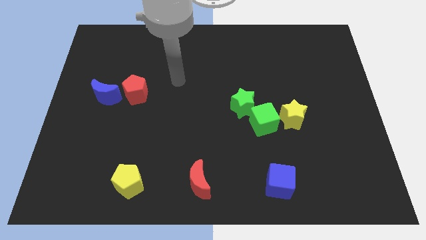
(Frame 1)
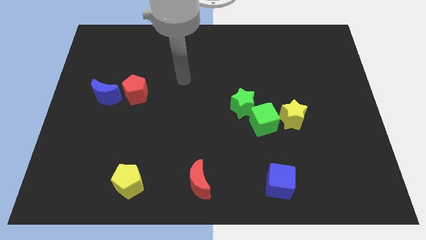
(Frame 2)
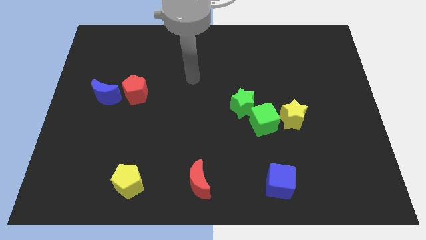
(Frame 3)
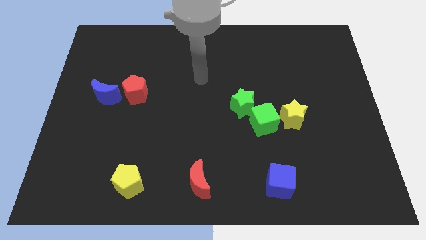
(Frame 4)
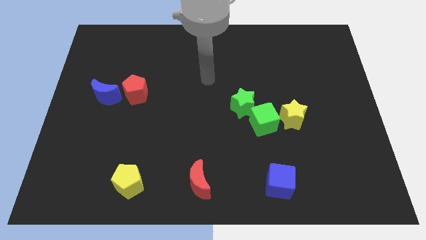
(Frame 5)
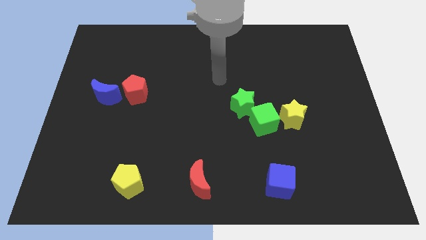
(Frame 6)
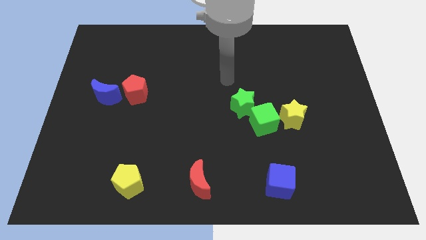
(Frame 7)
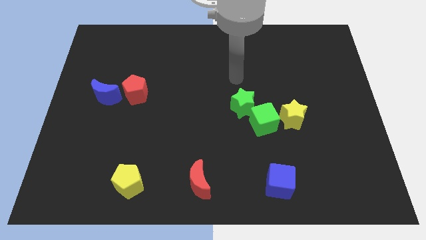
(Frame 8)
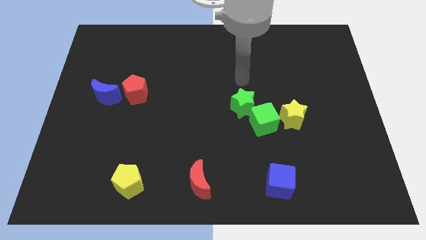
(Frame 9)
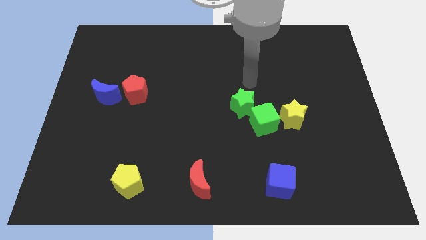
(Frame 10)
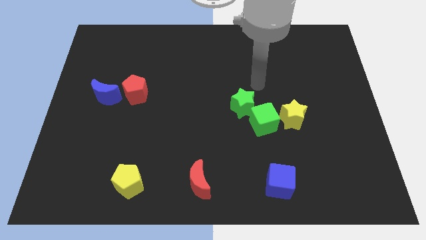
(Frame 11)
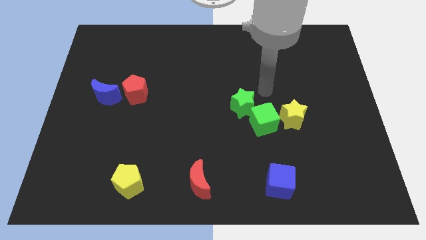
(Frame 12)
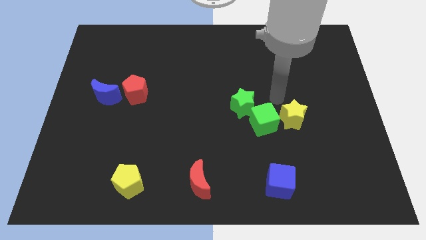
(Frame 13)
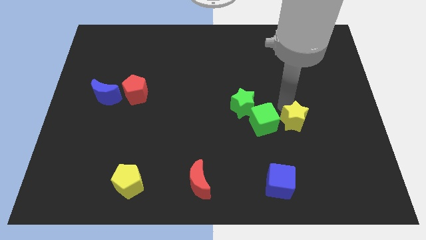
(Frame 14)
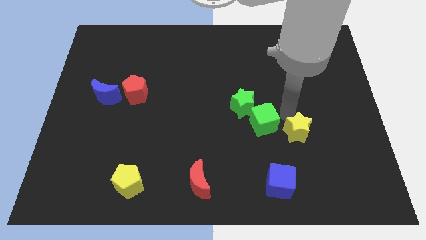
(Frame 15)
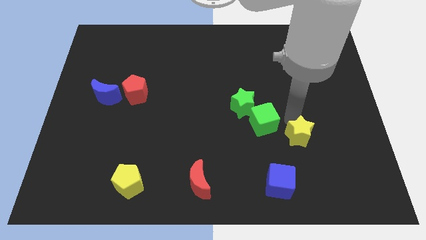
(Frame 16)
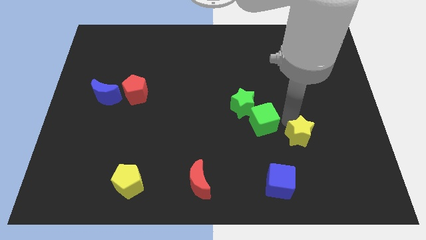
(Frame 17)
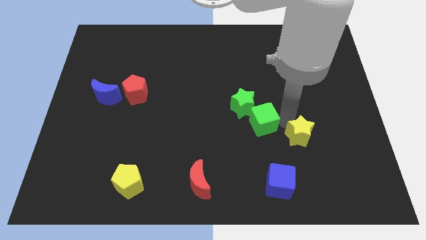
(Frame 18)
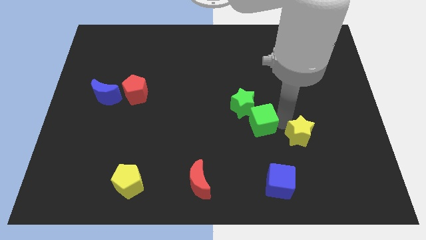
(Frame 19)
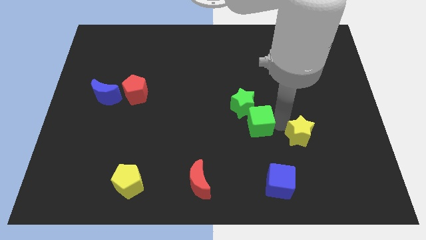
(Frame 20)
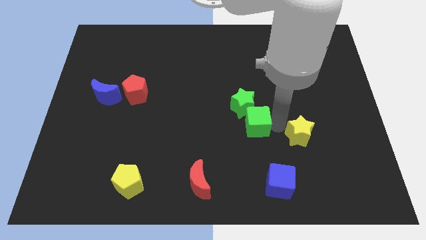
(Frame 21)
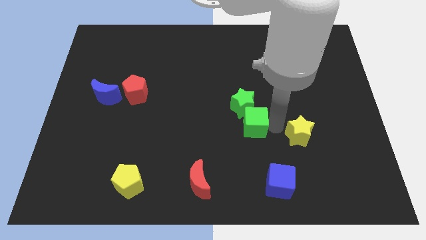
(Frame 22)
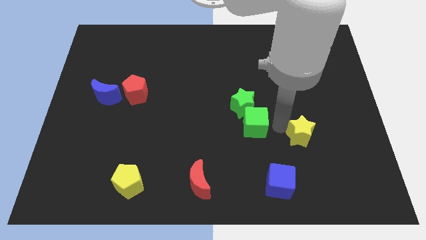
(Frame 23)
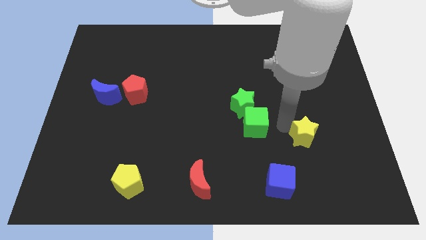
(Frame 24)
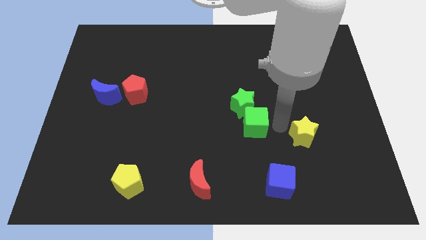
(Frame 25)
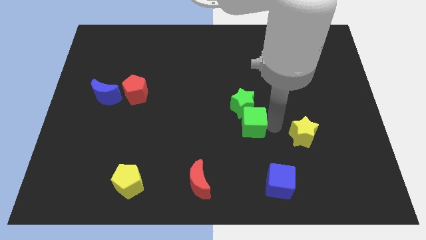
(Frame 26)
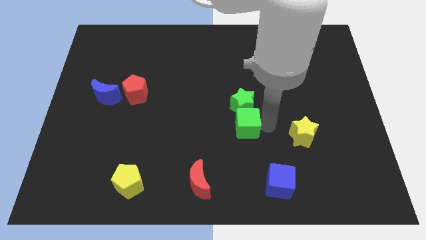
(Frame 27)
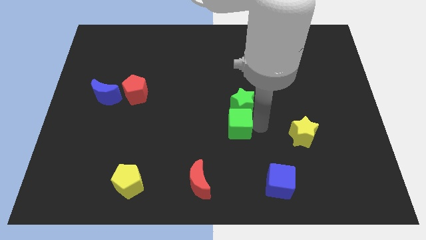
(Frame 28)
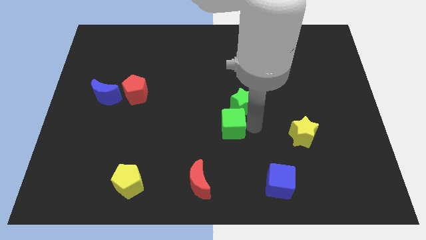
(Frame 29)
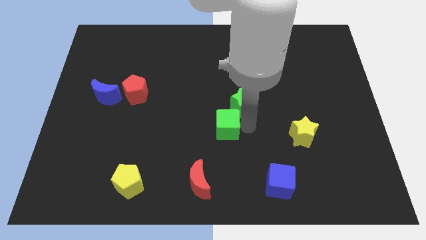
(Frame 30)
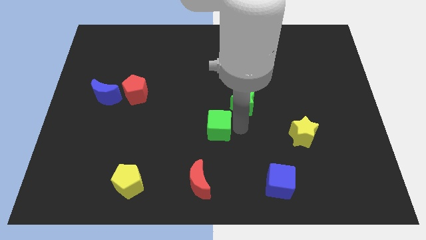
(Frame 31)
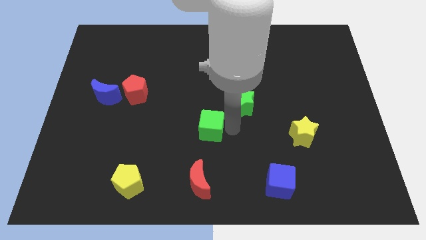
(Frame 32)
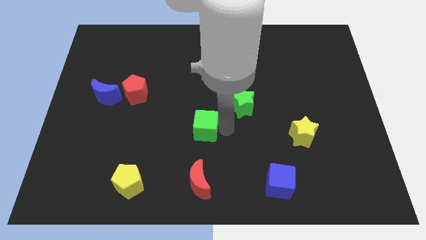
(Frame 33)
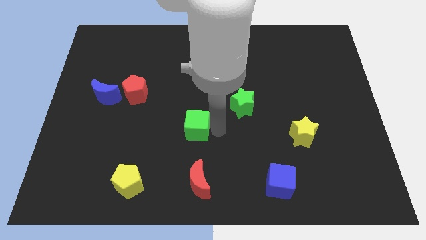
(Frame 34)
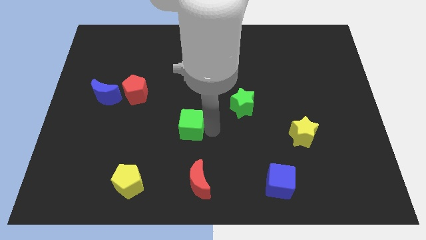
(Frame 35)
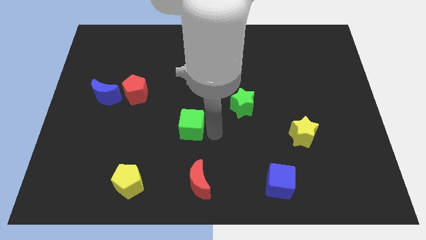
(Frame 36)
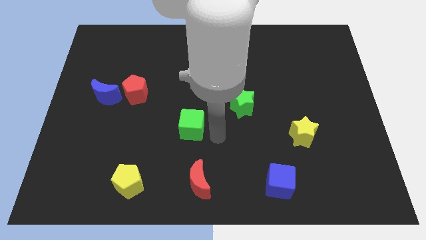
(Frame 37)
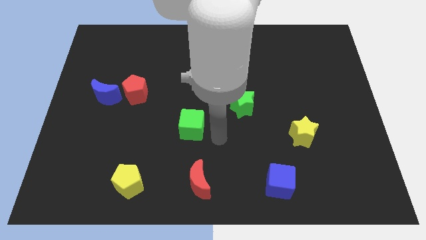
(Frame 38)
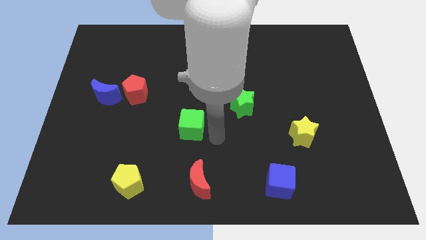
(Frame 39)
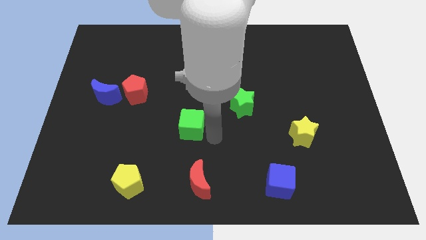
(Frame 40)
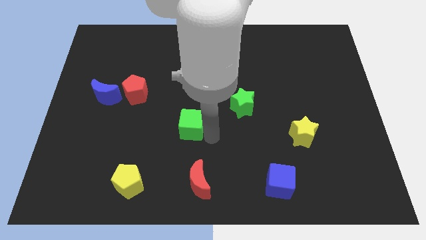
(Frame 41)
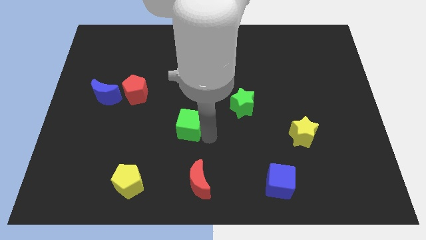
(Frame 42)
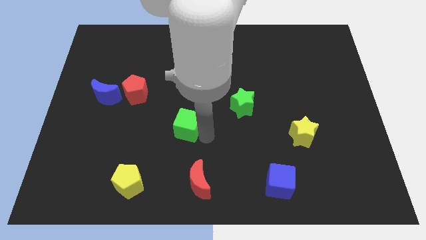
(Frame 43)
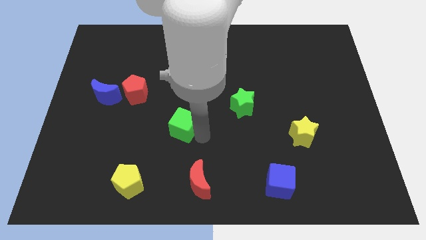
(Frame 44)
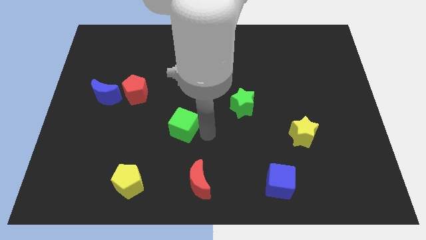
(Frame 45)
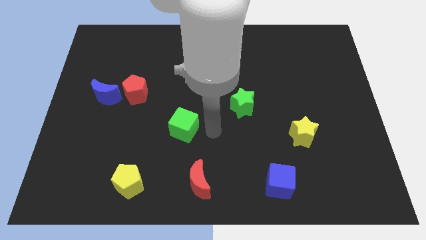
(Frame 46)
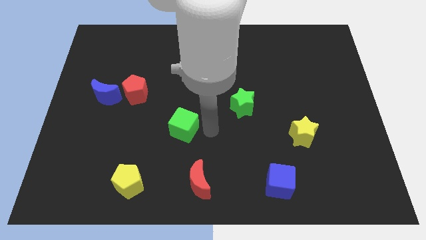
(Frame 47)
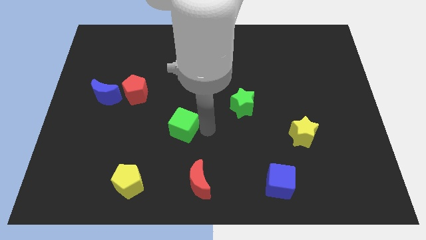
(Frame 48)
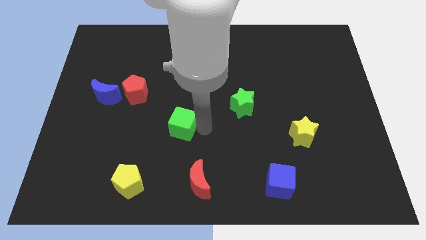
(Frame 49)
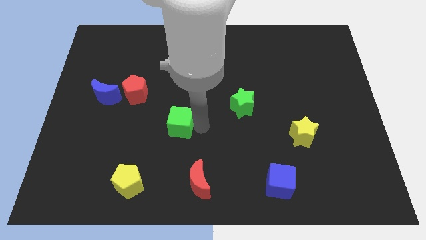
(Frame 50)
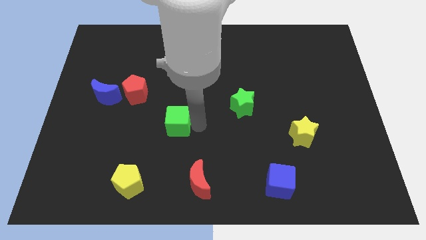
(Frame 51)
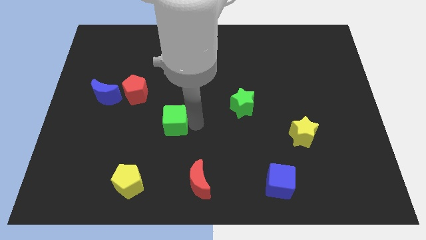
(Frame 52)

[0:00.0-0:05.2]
push the green cube left

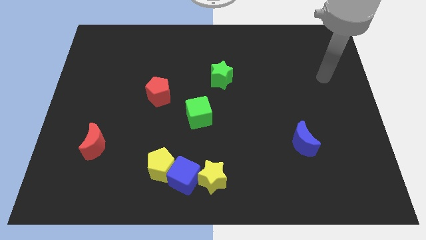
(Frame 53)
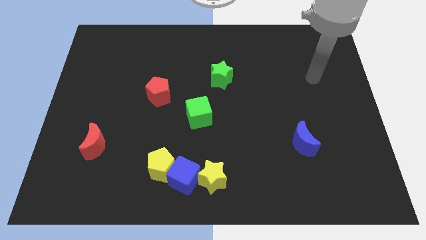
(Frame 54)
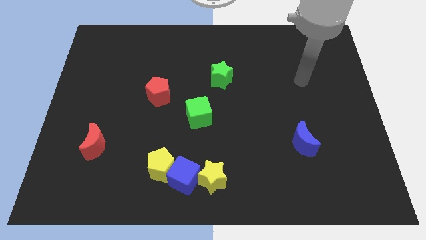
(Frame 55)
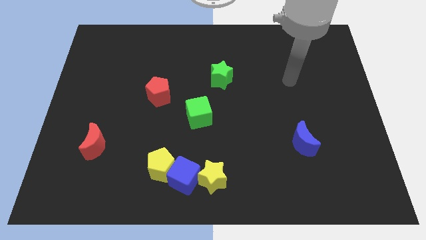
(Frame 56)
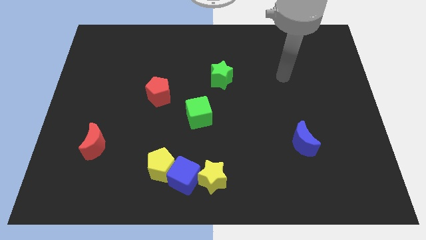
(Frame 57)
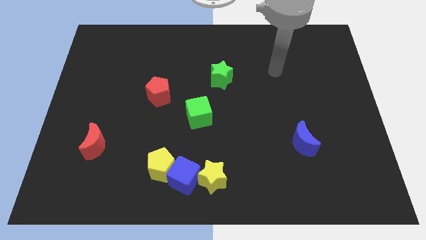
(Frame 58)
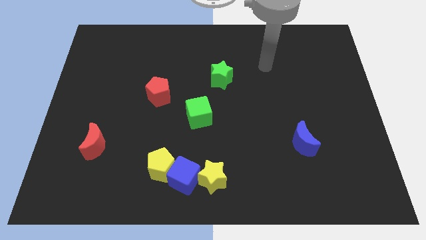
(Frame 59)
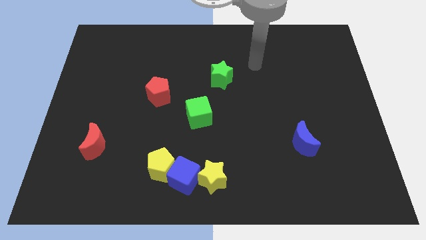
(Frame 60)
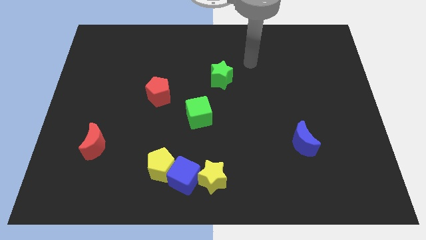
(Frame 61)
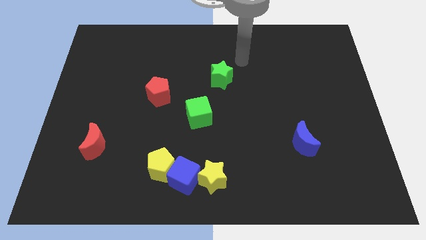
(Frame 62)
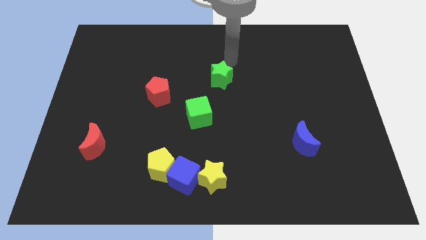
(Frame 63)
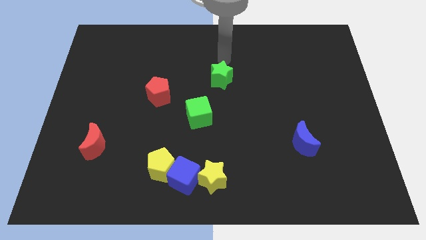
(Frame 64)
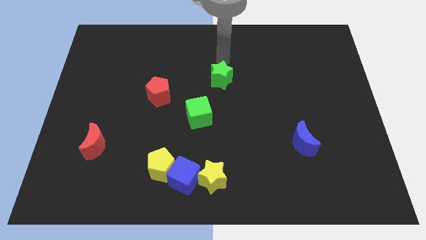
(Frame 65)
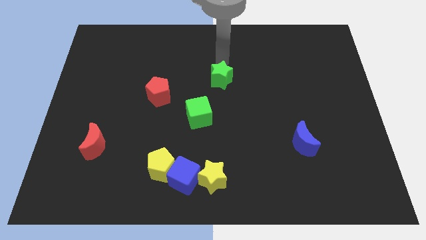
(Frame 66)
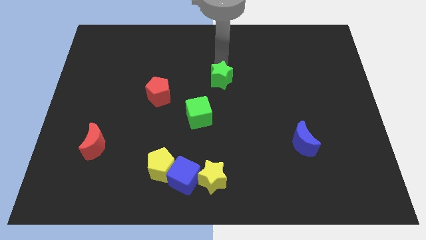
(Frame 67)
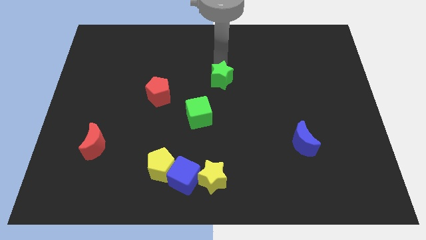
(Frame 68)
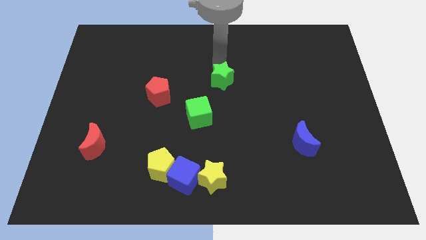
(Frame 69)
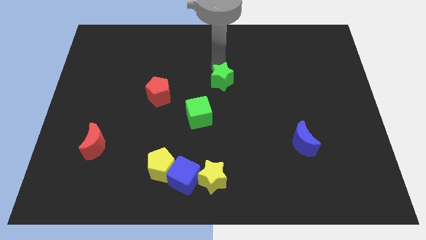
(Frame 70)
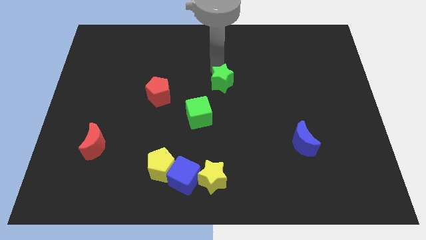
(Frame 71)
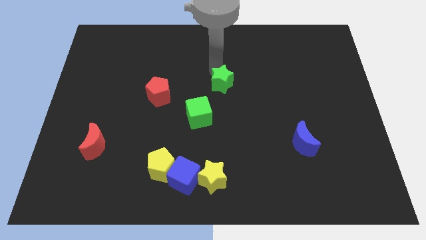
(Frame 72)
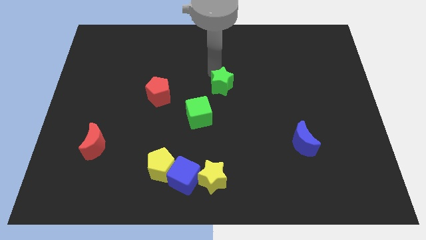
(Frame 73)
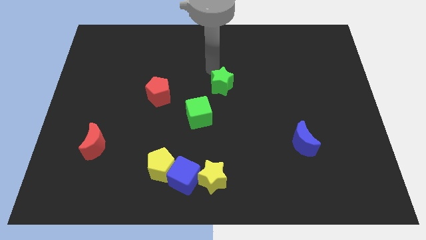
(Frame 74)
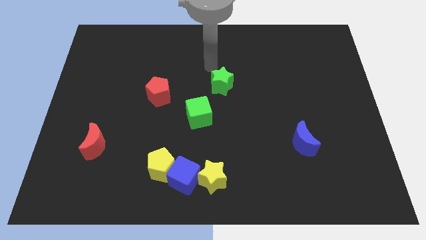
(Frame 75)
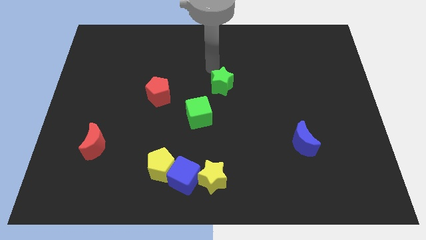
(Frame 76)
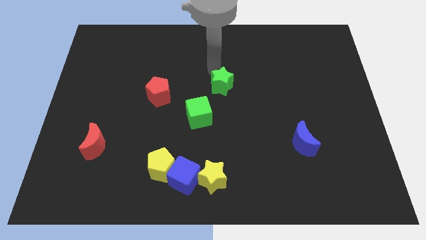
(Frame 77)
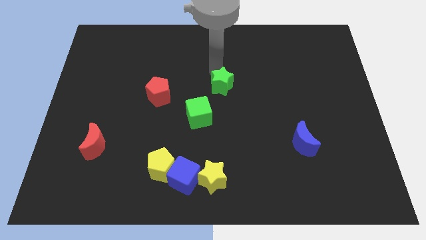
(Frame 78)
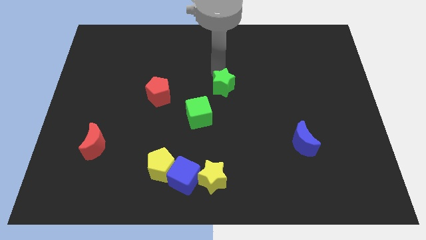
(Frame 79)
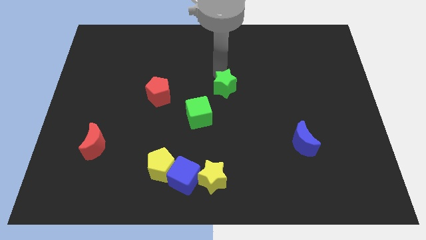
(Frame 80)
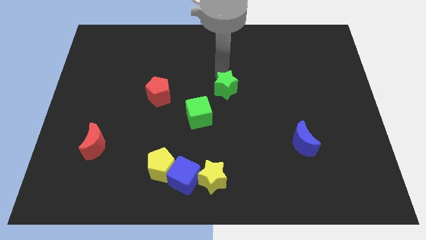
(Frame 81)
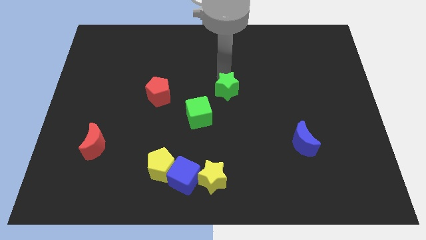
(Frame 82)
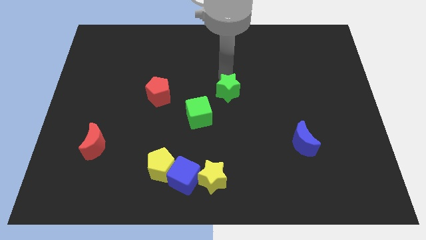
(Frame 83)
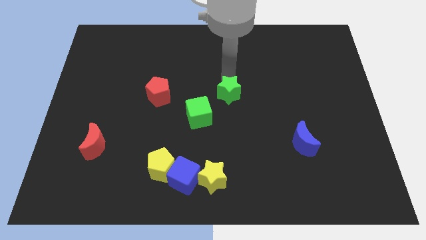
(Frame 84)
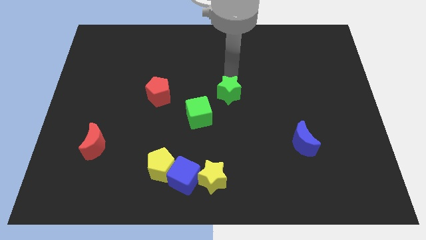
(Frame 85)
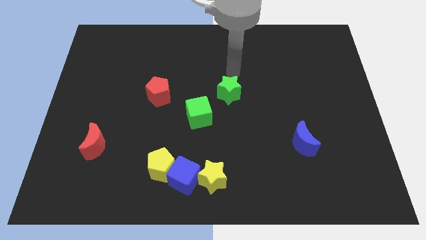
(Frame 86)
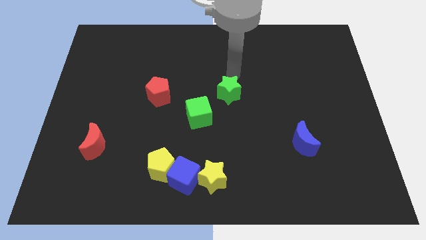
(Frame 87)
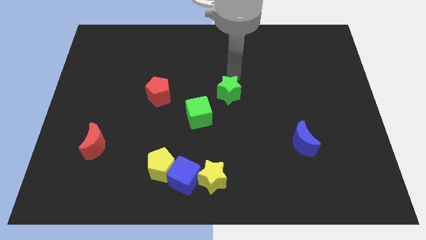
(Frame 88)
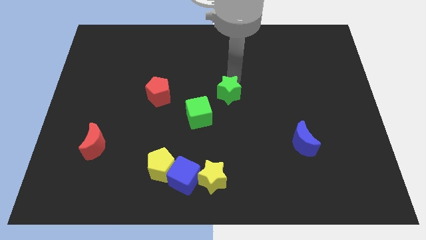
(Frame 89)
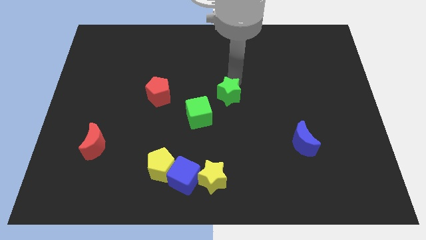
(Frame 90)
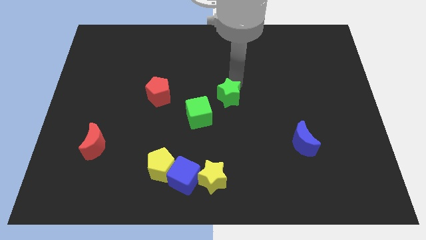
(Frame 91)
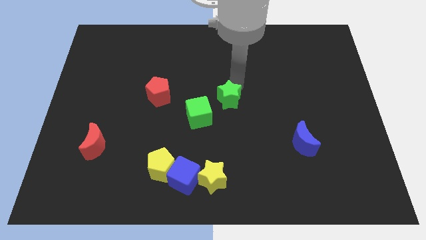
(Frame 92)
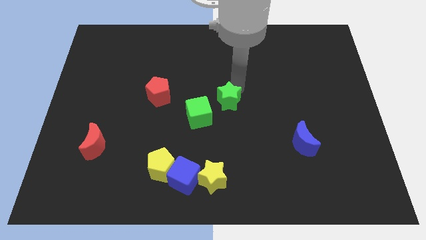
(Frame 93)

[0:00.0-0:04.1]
slightly push the green star downwards
